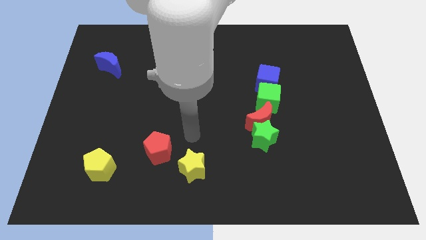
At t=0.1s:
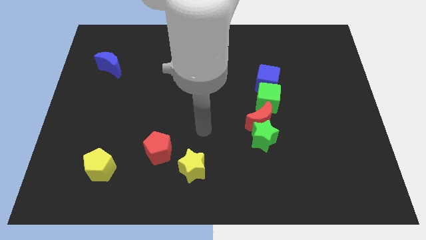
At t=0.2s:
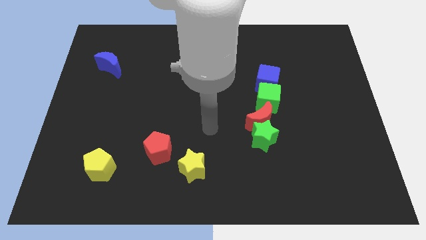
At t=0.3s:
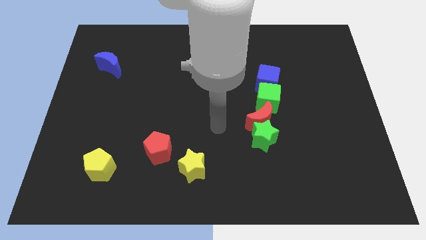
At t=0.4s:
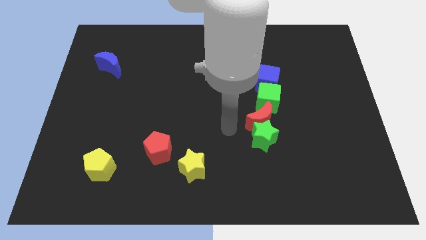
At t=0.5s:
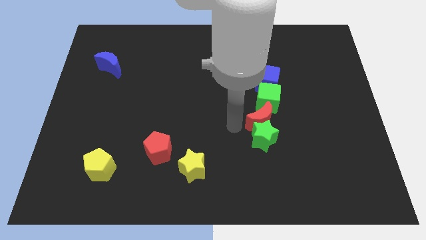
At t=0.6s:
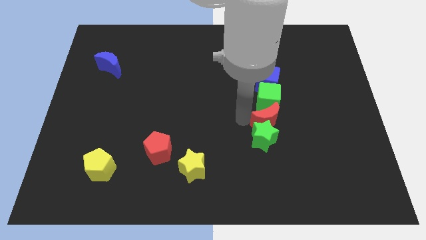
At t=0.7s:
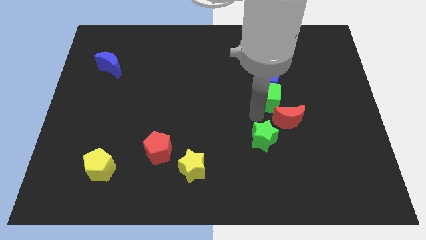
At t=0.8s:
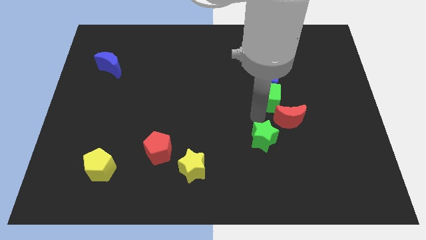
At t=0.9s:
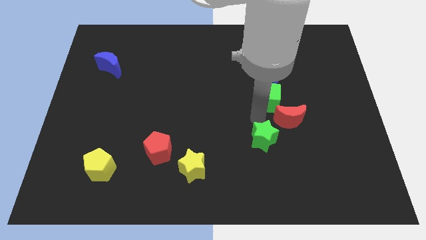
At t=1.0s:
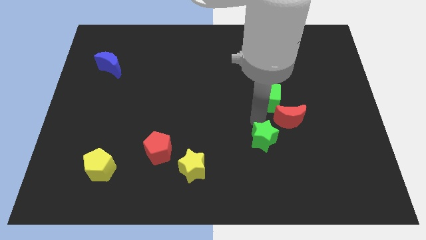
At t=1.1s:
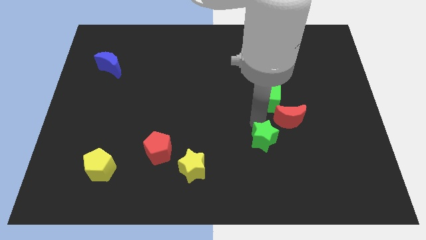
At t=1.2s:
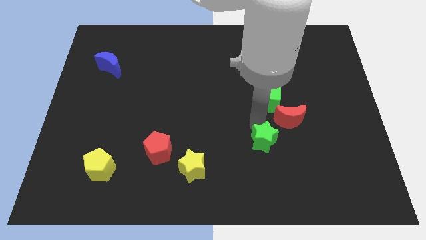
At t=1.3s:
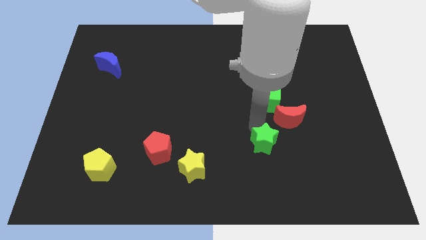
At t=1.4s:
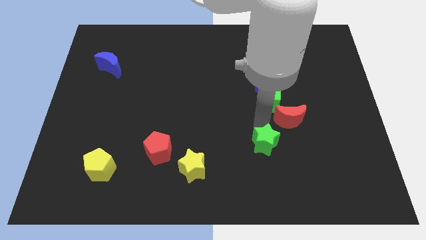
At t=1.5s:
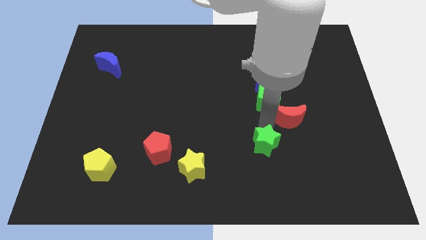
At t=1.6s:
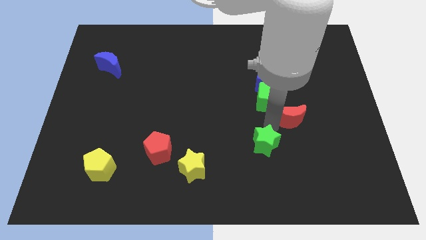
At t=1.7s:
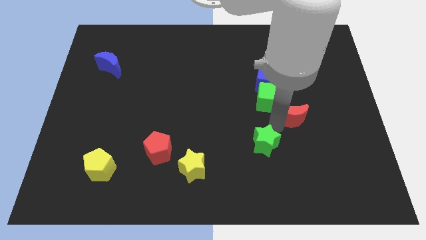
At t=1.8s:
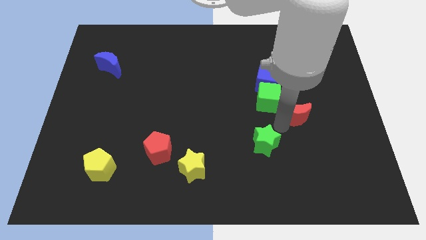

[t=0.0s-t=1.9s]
move the green star away from the red moon

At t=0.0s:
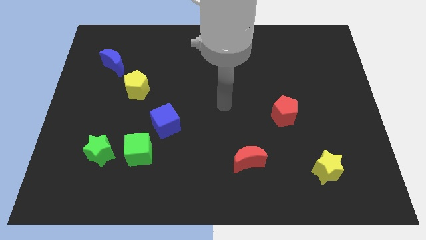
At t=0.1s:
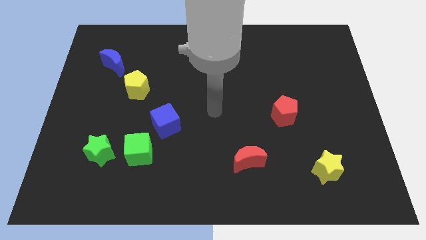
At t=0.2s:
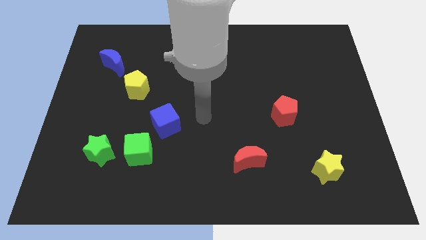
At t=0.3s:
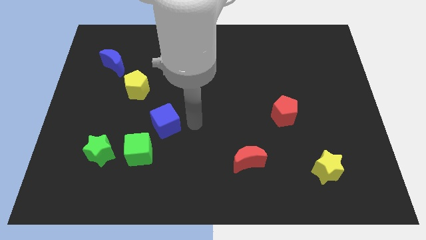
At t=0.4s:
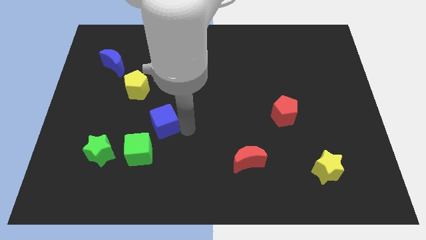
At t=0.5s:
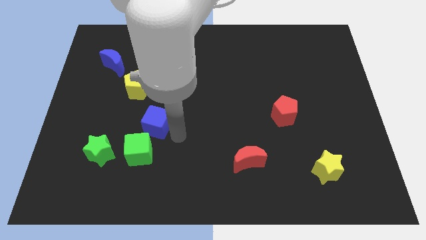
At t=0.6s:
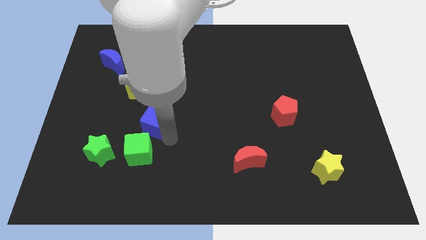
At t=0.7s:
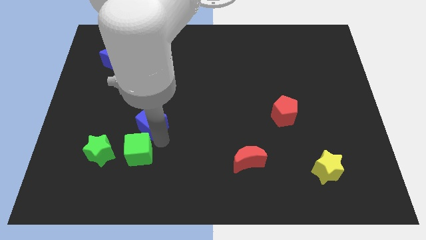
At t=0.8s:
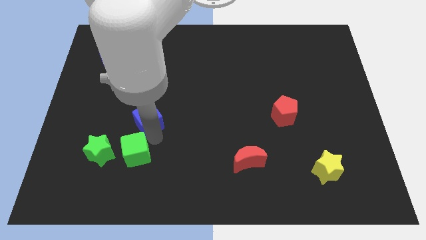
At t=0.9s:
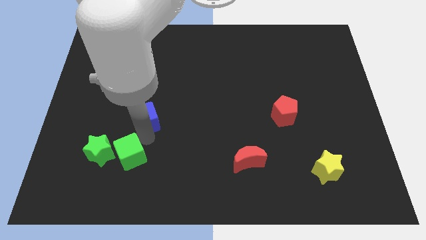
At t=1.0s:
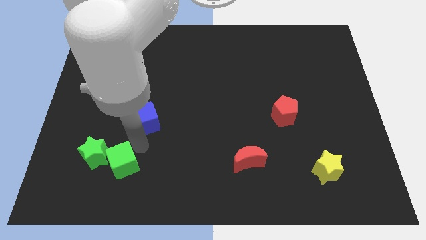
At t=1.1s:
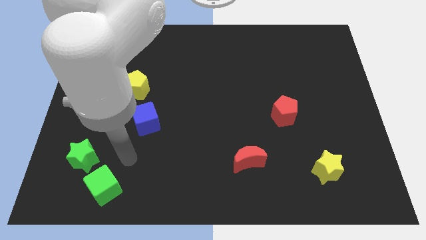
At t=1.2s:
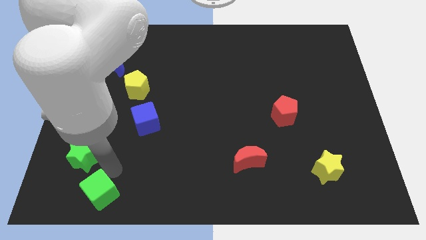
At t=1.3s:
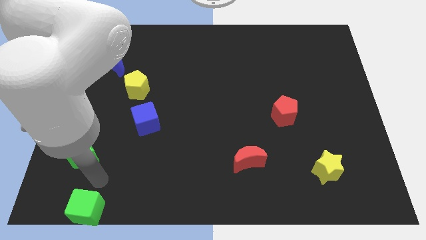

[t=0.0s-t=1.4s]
separate the green star from the green cube

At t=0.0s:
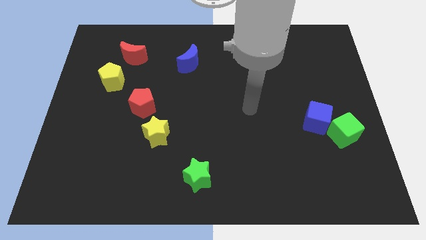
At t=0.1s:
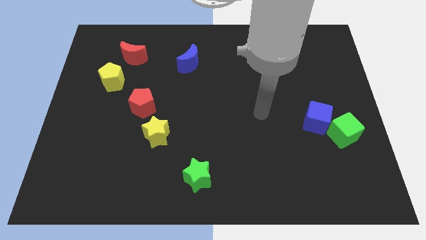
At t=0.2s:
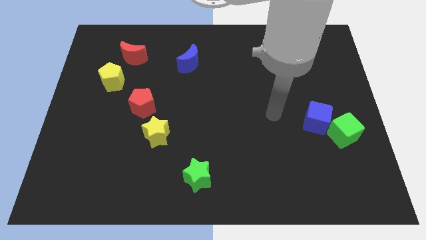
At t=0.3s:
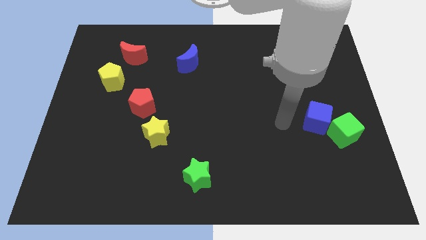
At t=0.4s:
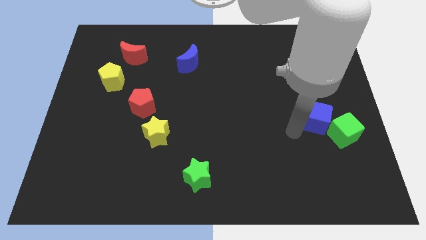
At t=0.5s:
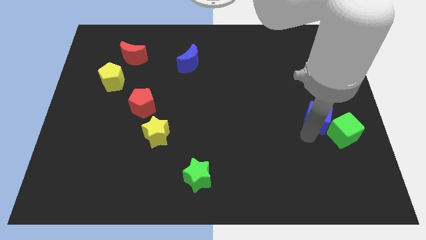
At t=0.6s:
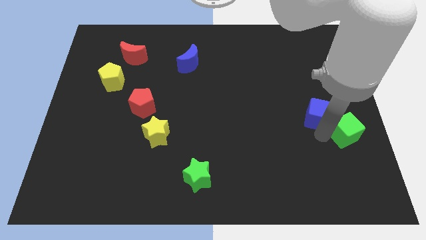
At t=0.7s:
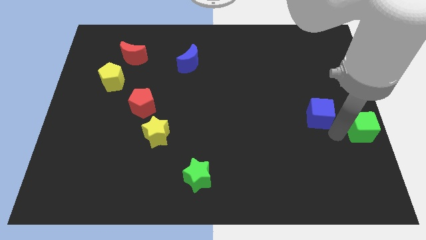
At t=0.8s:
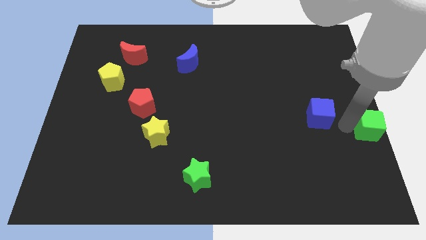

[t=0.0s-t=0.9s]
separate the blue cube from the green cube

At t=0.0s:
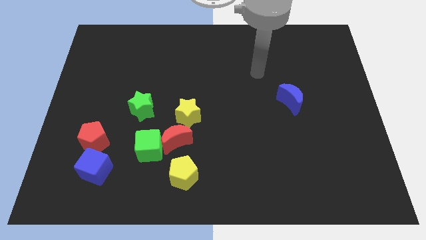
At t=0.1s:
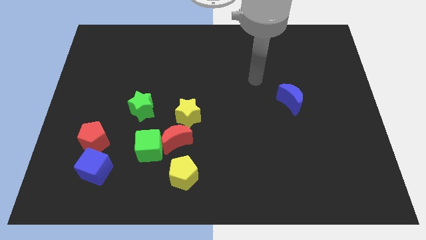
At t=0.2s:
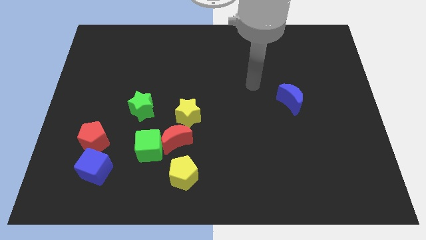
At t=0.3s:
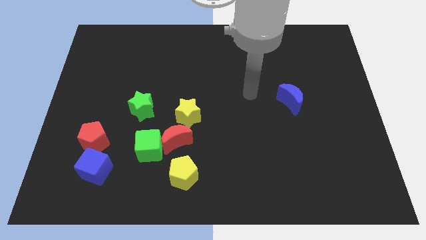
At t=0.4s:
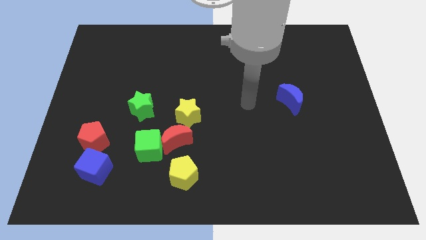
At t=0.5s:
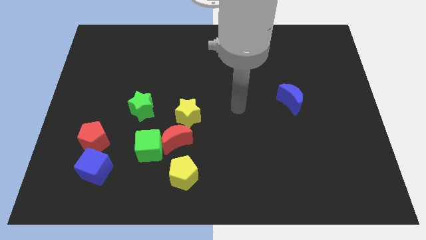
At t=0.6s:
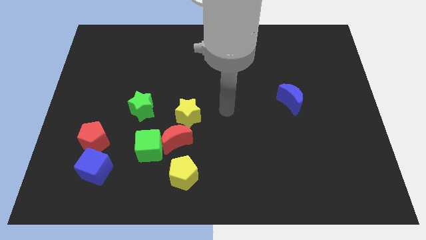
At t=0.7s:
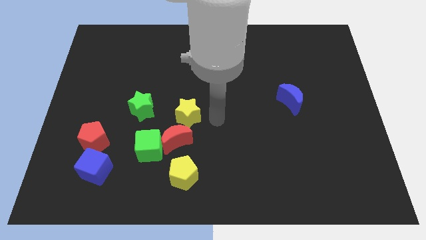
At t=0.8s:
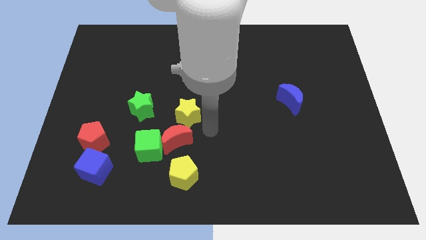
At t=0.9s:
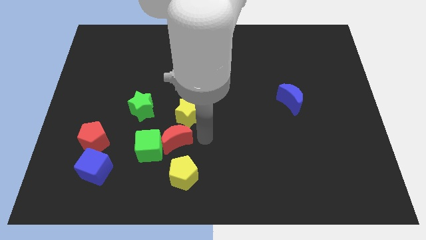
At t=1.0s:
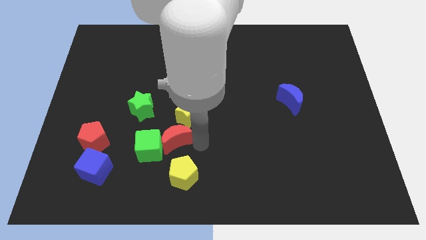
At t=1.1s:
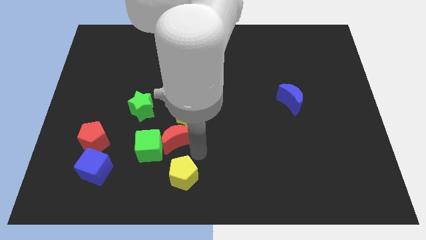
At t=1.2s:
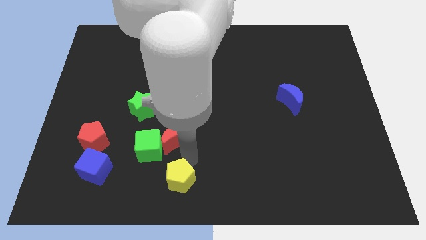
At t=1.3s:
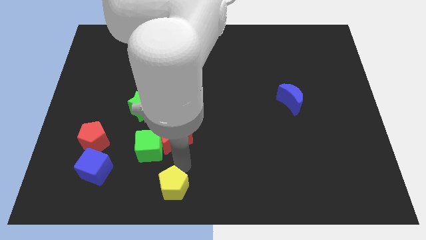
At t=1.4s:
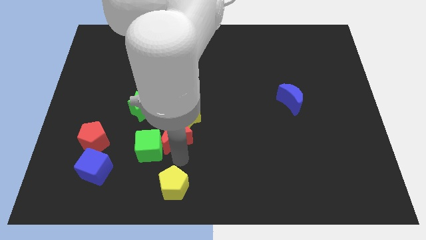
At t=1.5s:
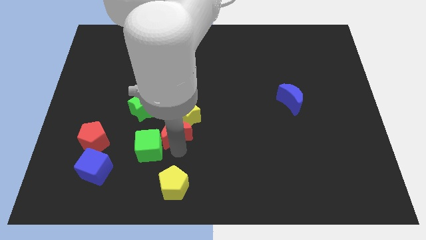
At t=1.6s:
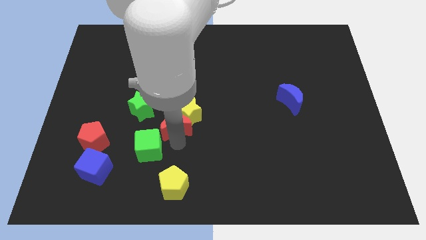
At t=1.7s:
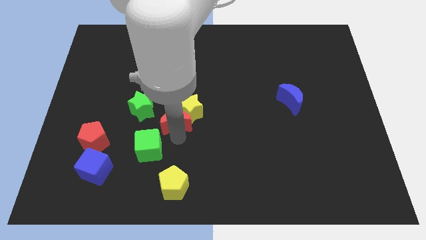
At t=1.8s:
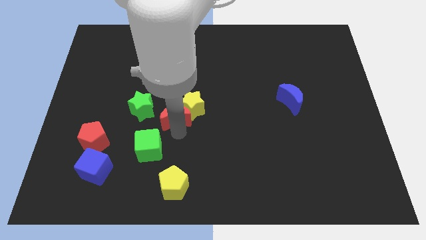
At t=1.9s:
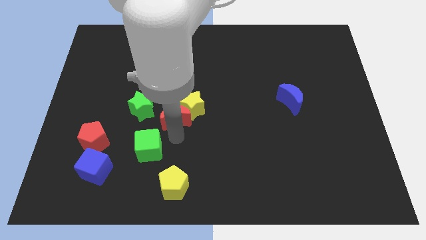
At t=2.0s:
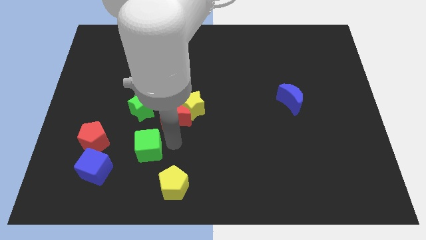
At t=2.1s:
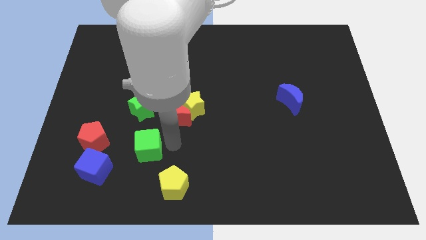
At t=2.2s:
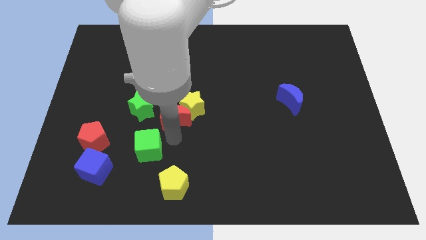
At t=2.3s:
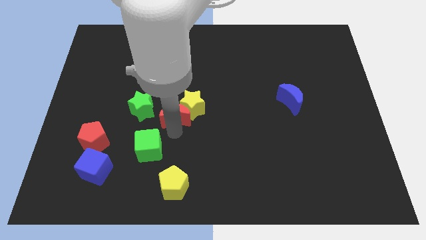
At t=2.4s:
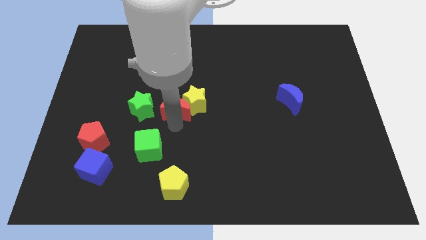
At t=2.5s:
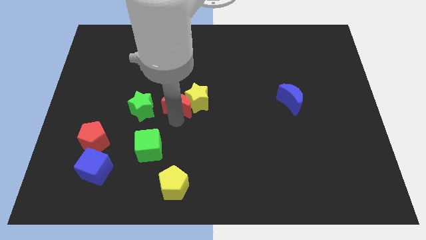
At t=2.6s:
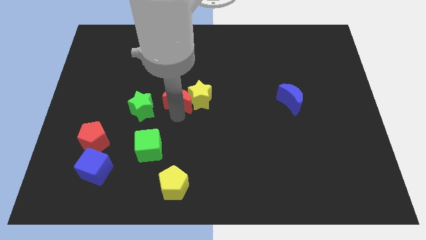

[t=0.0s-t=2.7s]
pull the red moon apart from the group of blocks

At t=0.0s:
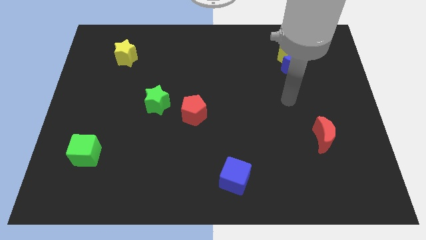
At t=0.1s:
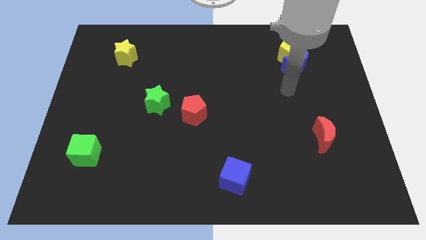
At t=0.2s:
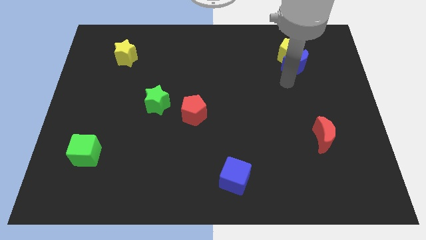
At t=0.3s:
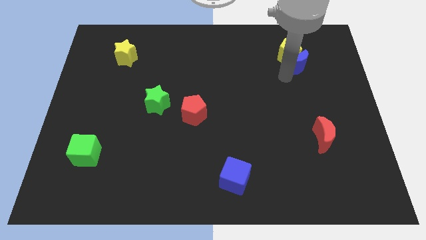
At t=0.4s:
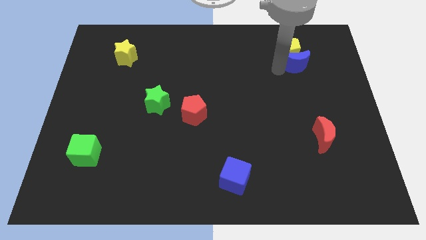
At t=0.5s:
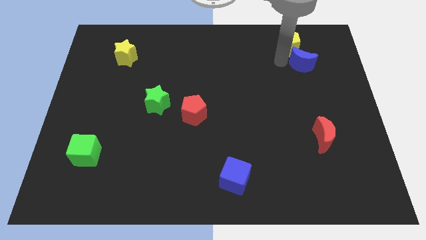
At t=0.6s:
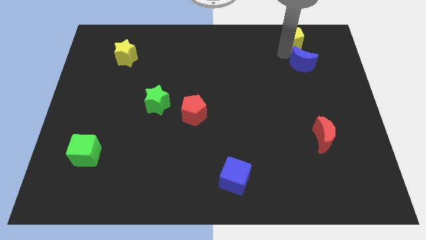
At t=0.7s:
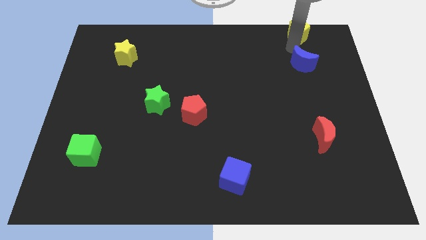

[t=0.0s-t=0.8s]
separate the blue moon from the yellow pentagon

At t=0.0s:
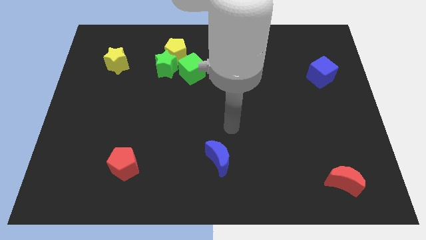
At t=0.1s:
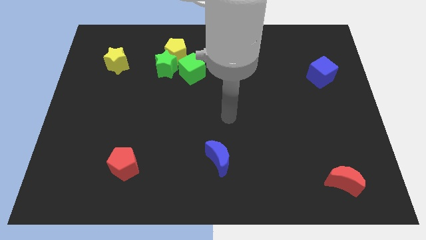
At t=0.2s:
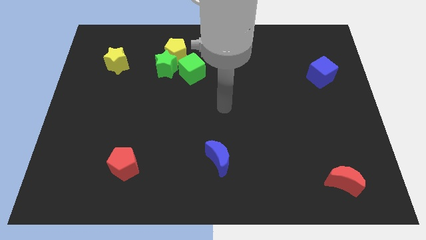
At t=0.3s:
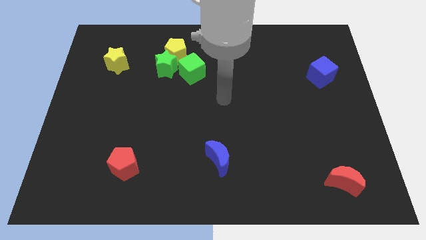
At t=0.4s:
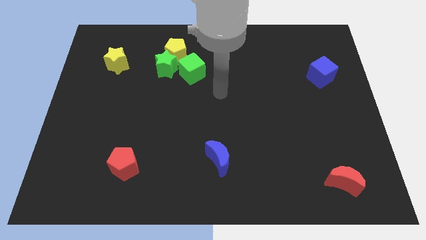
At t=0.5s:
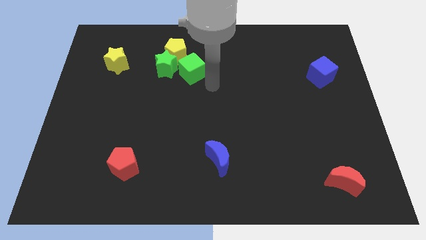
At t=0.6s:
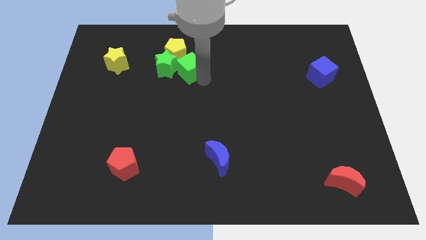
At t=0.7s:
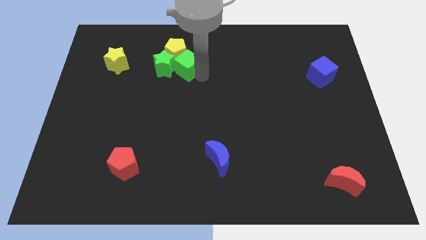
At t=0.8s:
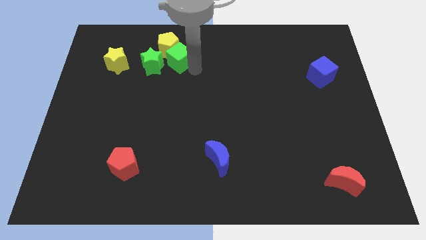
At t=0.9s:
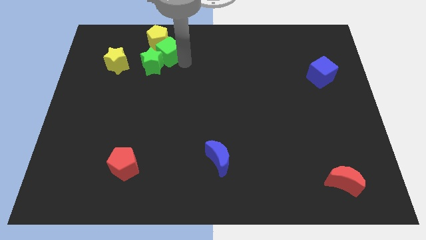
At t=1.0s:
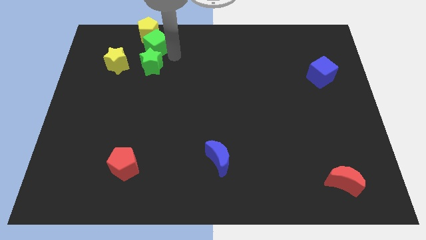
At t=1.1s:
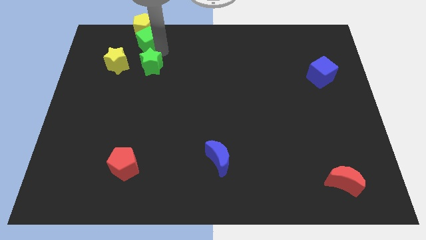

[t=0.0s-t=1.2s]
pull the green star apart from the yellow pentagon and green cube

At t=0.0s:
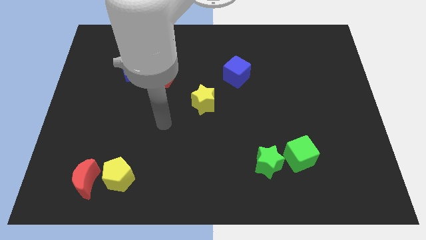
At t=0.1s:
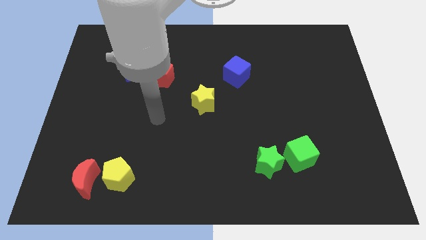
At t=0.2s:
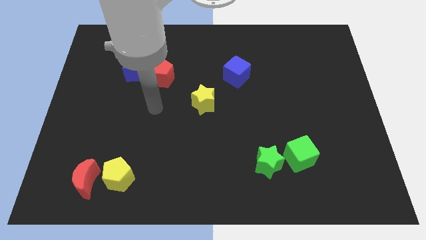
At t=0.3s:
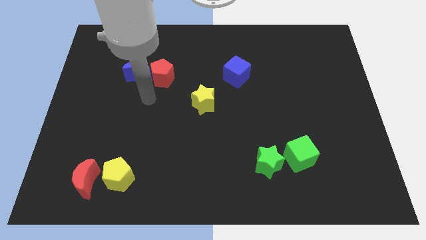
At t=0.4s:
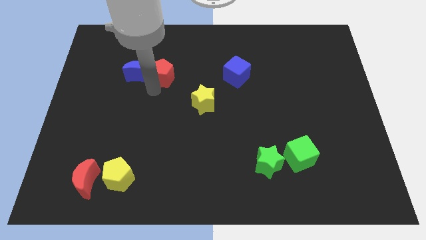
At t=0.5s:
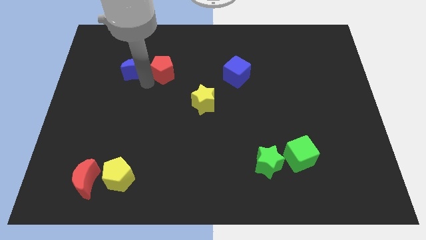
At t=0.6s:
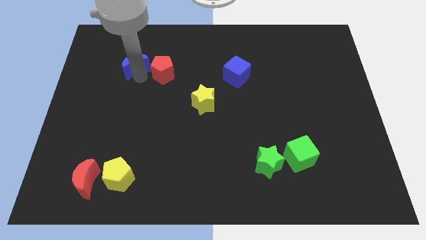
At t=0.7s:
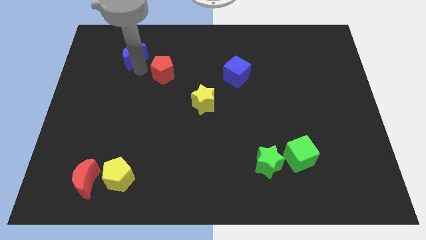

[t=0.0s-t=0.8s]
move the red pentagon away from the blue moon
